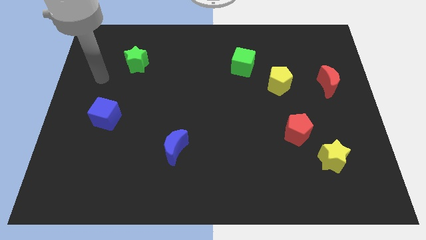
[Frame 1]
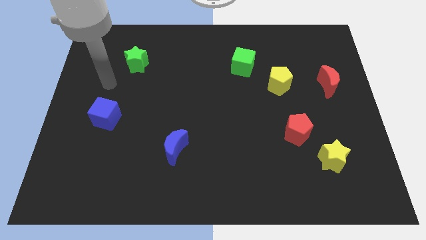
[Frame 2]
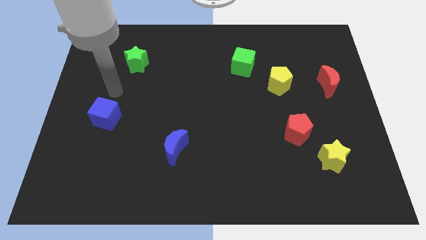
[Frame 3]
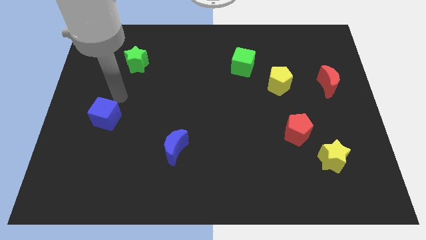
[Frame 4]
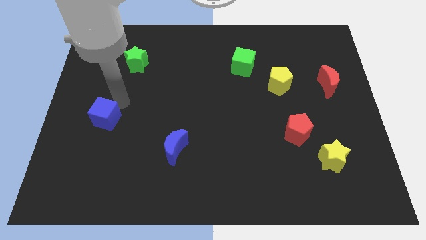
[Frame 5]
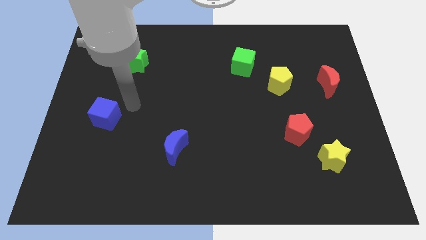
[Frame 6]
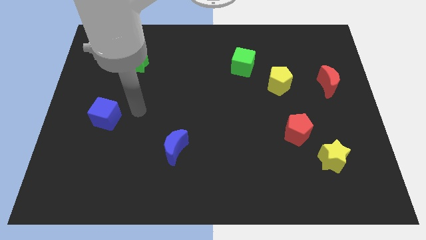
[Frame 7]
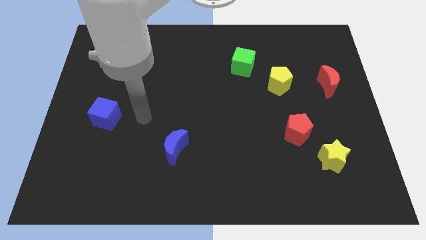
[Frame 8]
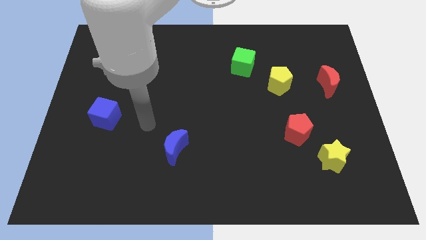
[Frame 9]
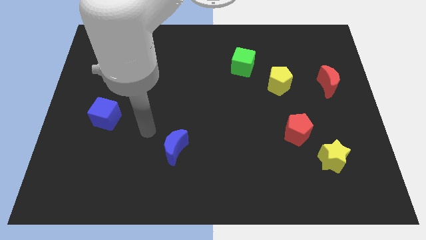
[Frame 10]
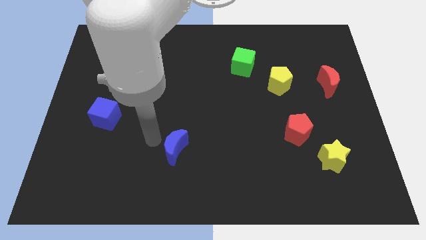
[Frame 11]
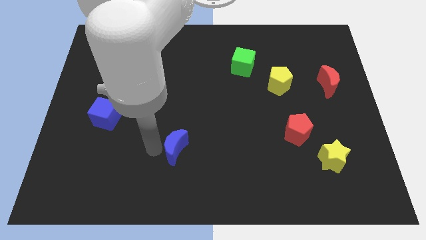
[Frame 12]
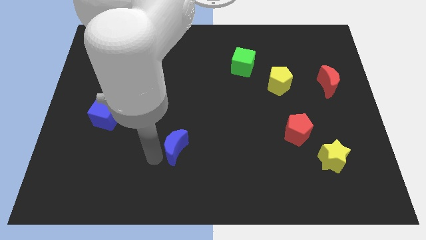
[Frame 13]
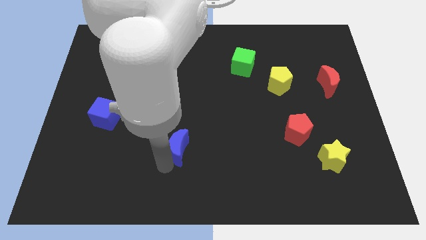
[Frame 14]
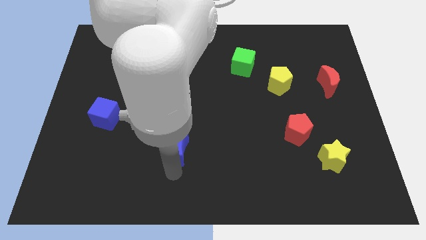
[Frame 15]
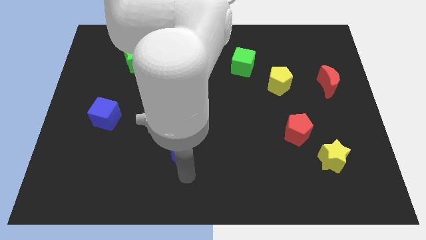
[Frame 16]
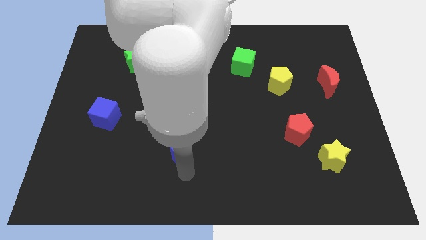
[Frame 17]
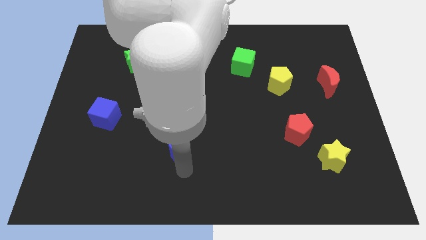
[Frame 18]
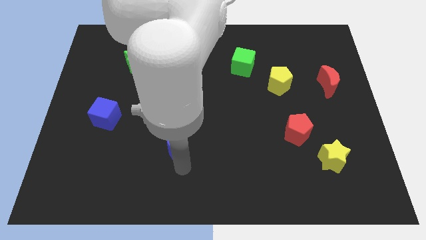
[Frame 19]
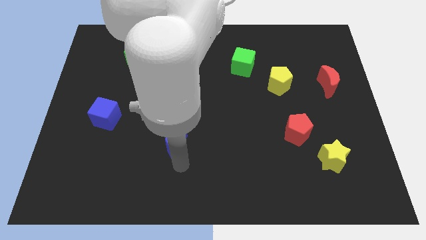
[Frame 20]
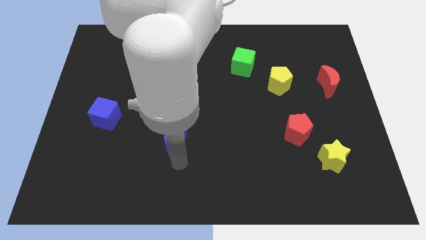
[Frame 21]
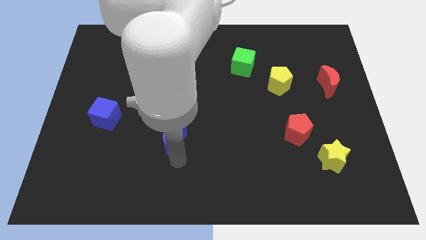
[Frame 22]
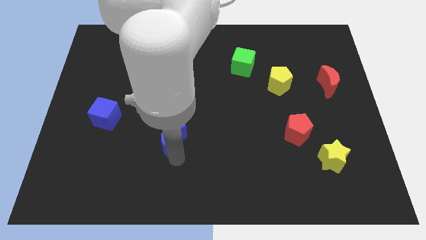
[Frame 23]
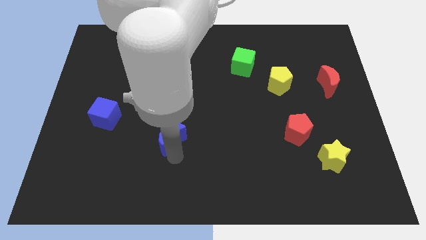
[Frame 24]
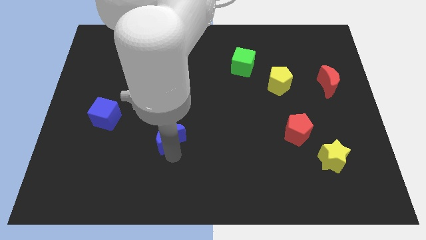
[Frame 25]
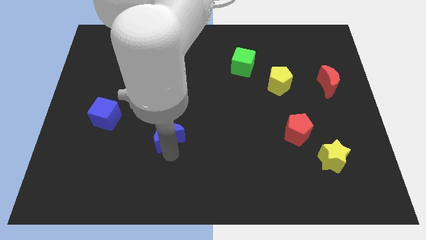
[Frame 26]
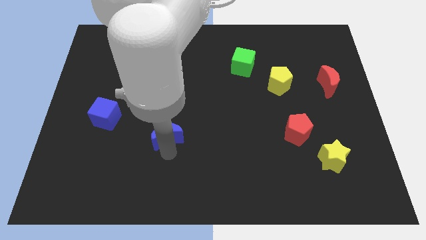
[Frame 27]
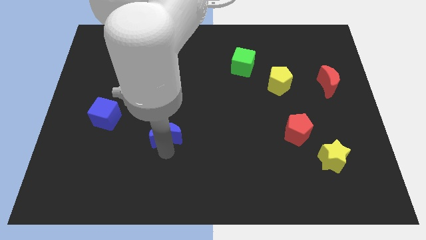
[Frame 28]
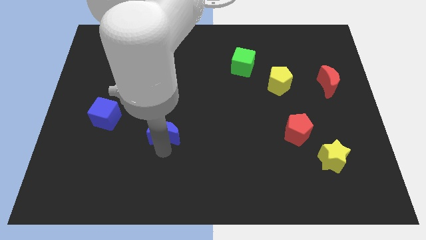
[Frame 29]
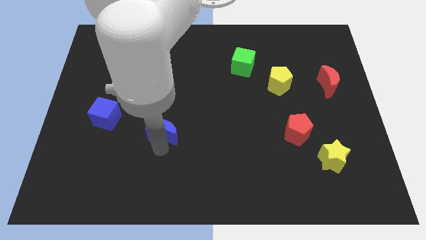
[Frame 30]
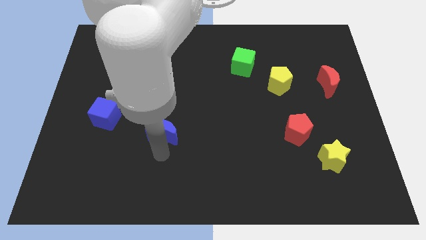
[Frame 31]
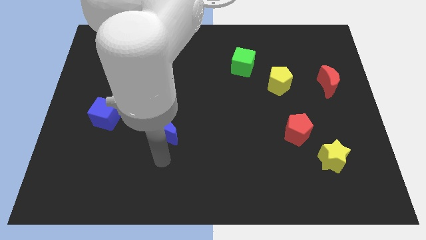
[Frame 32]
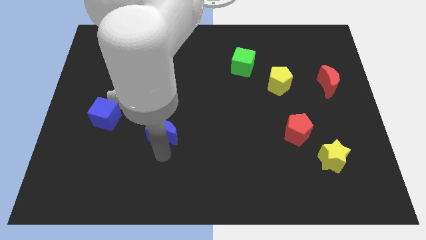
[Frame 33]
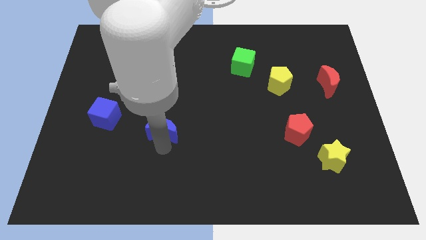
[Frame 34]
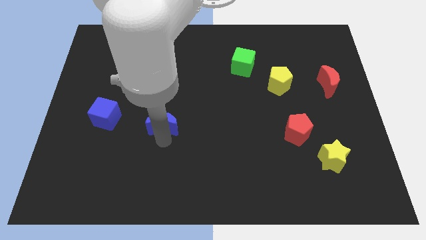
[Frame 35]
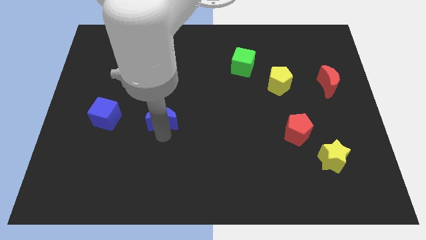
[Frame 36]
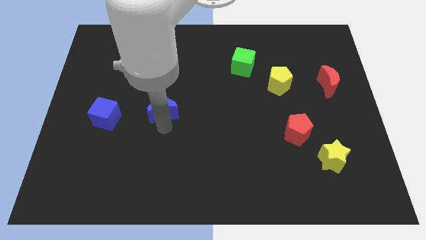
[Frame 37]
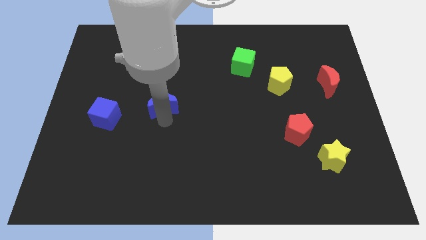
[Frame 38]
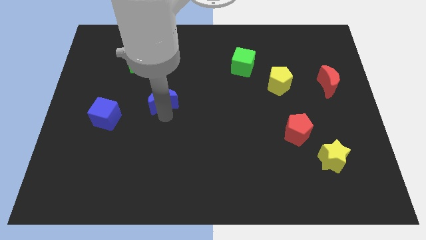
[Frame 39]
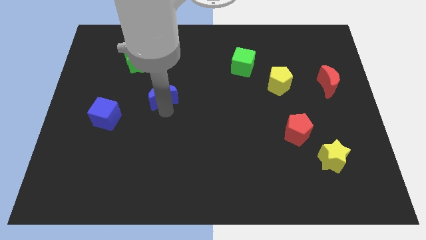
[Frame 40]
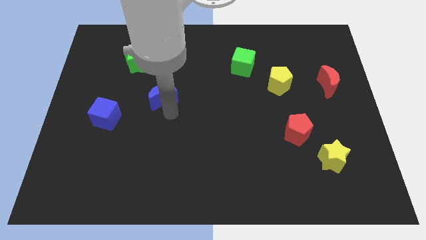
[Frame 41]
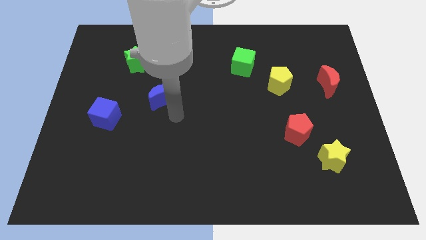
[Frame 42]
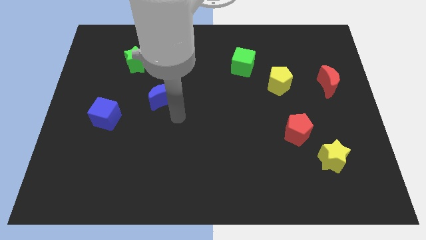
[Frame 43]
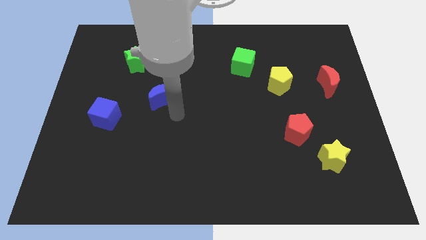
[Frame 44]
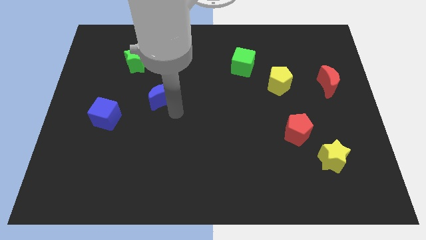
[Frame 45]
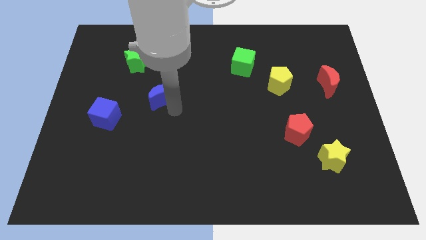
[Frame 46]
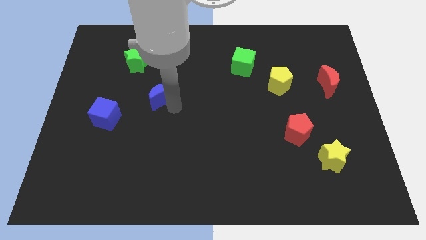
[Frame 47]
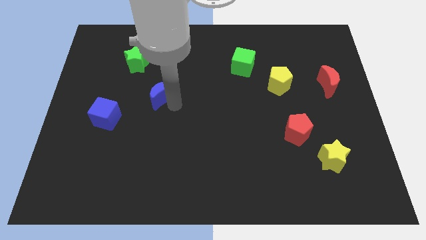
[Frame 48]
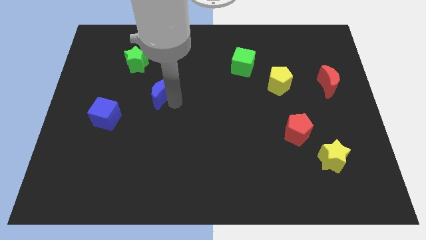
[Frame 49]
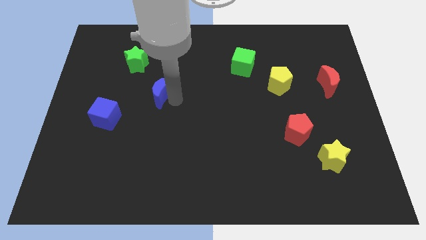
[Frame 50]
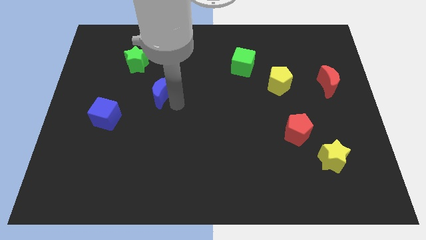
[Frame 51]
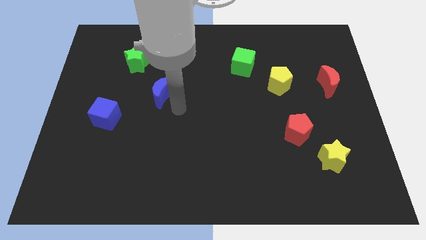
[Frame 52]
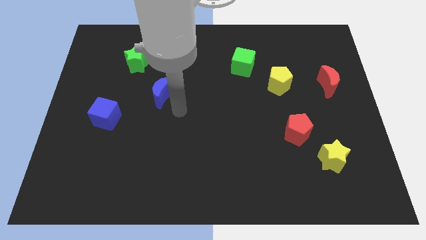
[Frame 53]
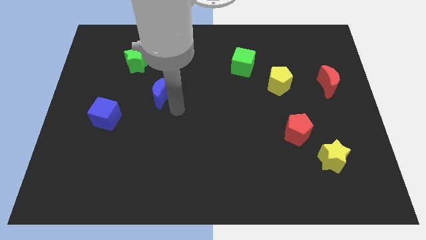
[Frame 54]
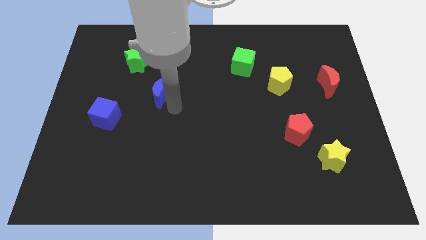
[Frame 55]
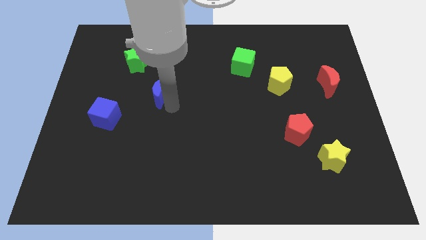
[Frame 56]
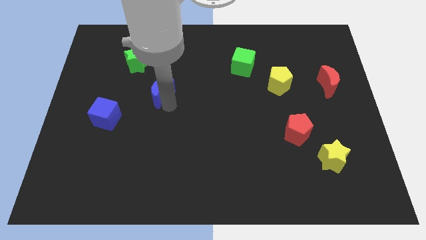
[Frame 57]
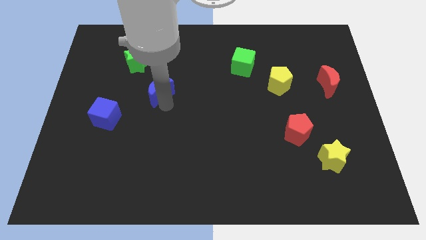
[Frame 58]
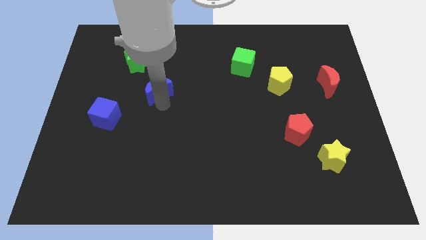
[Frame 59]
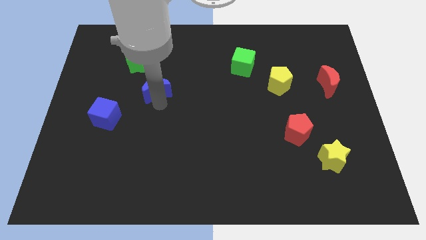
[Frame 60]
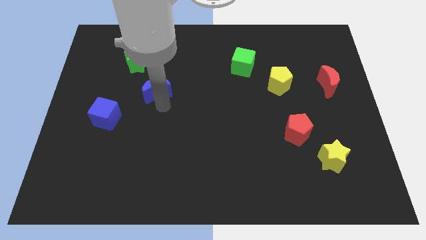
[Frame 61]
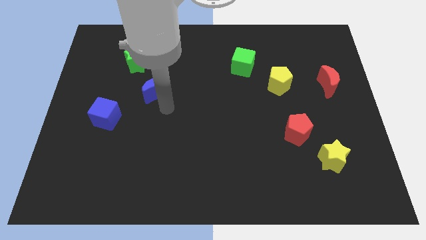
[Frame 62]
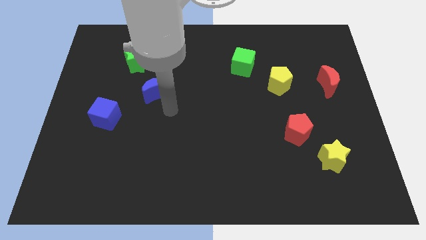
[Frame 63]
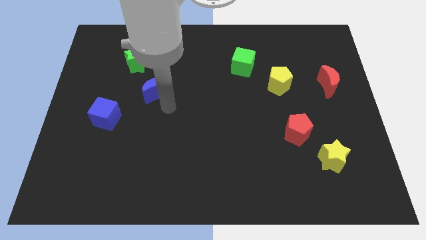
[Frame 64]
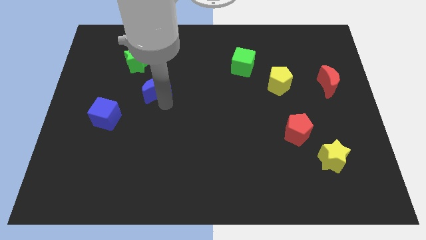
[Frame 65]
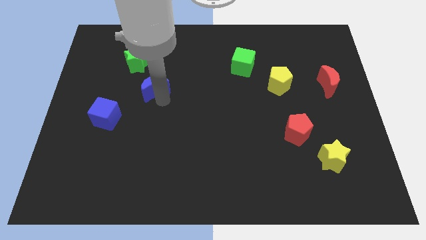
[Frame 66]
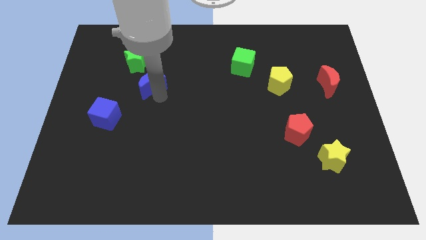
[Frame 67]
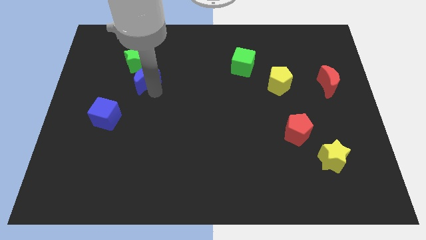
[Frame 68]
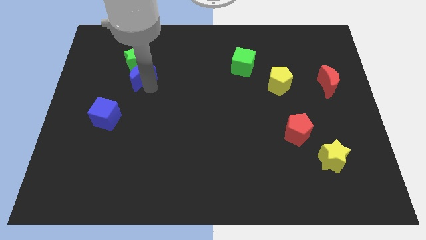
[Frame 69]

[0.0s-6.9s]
put the blue moon towards the green star

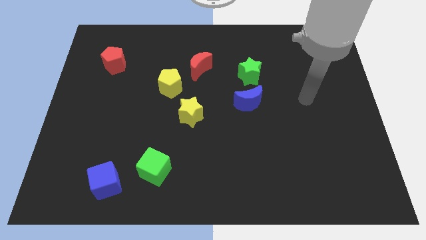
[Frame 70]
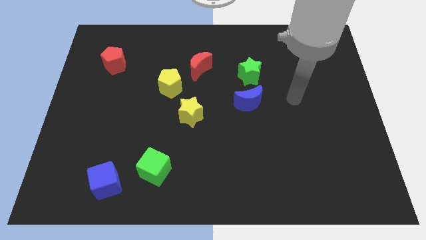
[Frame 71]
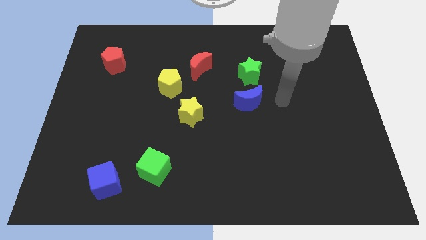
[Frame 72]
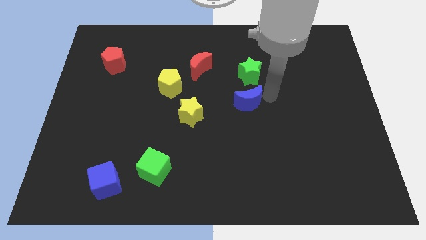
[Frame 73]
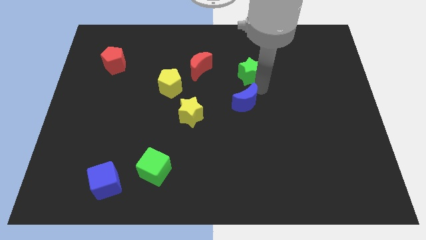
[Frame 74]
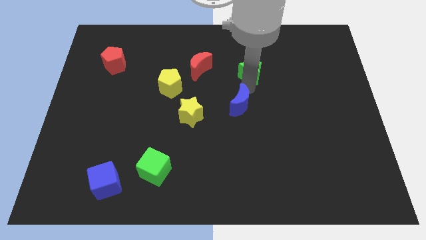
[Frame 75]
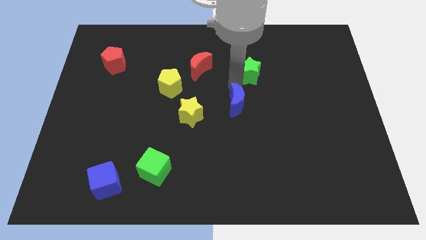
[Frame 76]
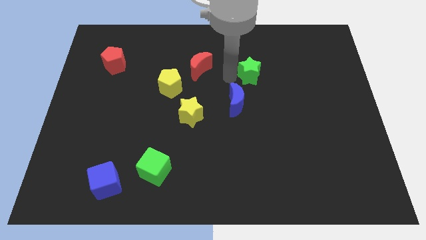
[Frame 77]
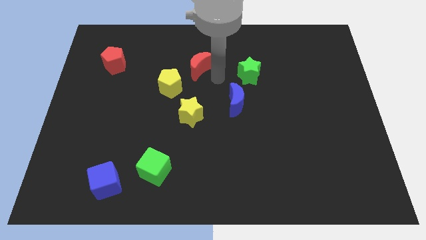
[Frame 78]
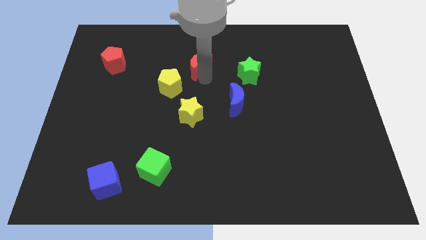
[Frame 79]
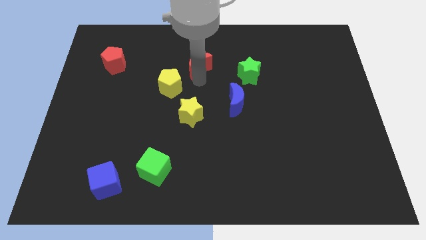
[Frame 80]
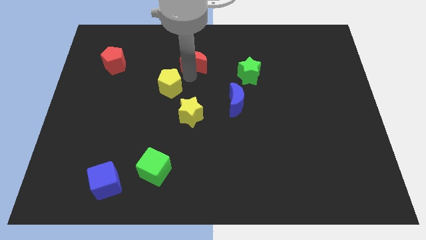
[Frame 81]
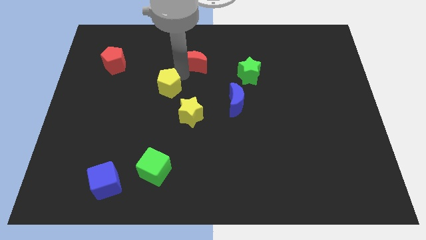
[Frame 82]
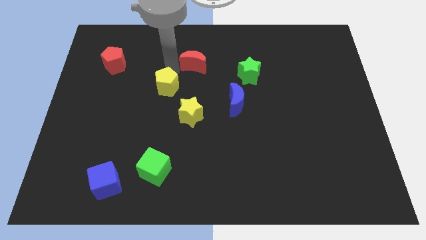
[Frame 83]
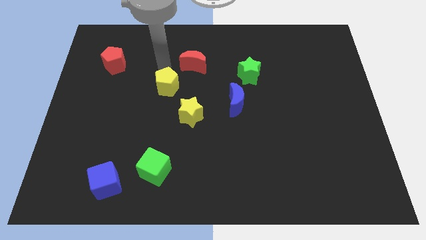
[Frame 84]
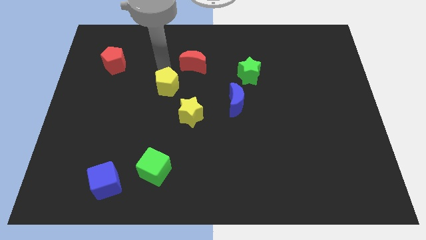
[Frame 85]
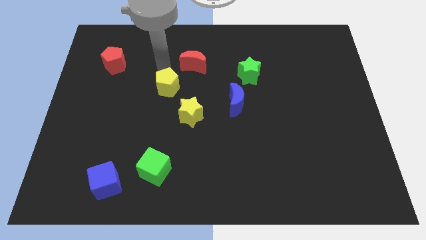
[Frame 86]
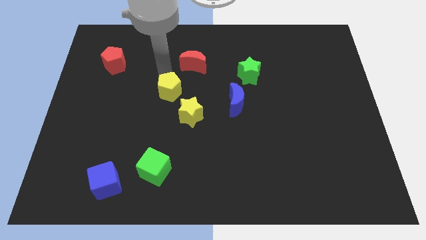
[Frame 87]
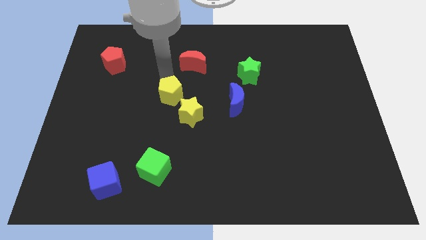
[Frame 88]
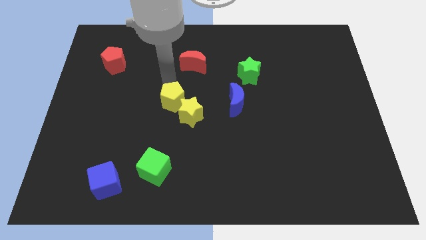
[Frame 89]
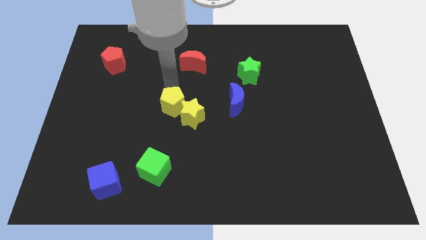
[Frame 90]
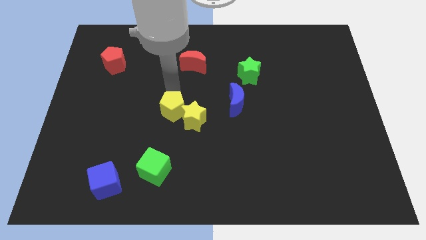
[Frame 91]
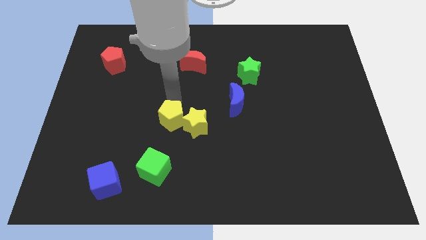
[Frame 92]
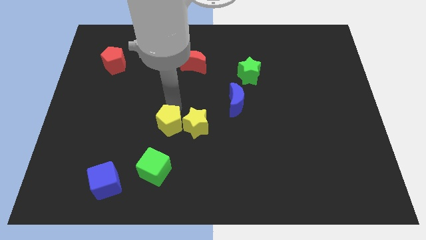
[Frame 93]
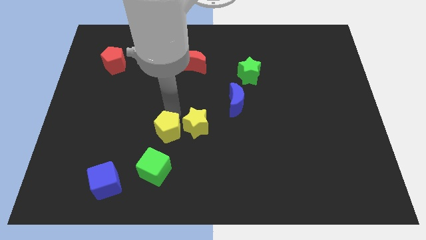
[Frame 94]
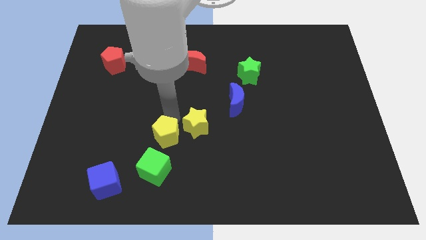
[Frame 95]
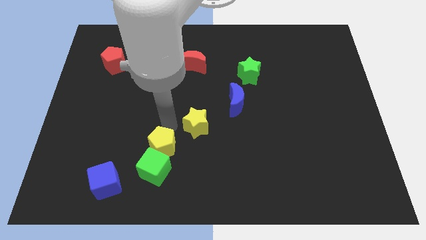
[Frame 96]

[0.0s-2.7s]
push the yellow pentagon close to the green cube
